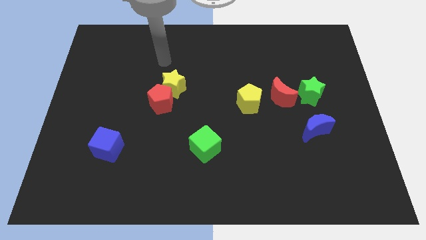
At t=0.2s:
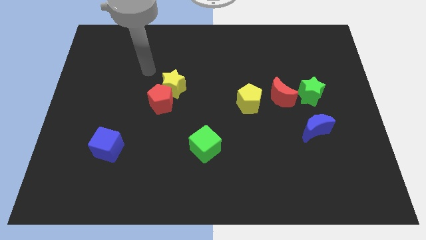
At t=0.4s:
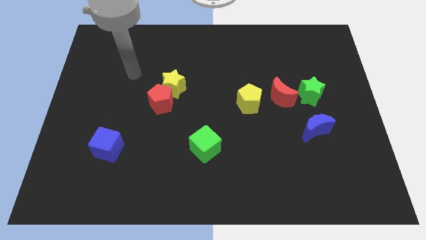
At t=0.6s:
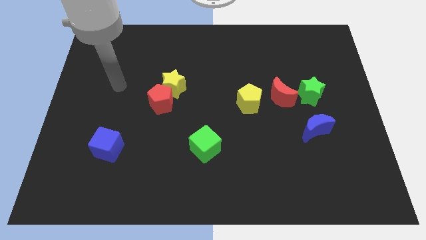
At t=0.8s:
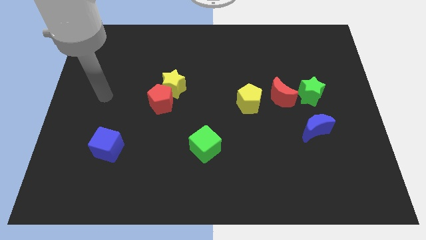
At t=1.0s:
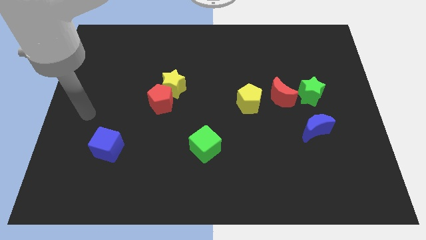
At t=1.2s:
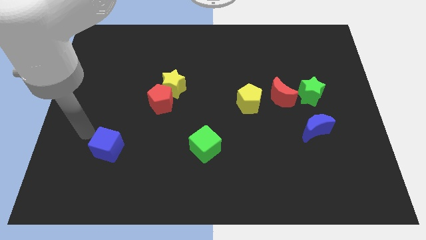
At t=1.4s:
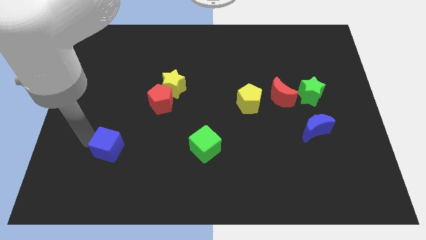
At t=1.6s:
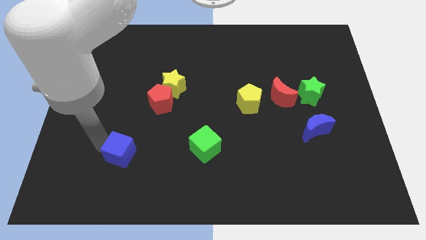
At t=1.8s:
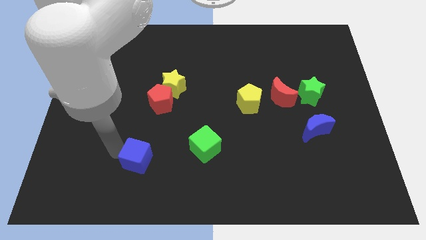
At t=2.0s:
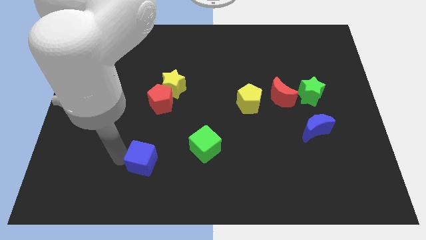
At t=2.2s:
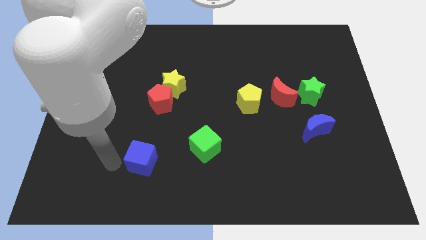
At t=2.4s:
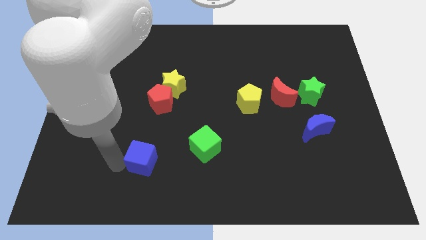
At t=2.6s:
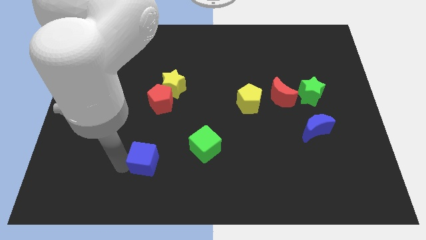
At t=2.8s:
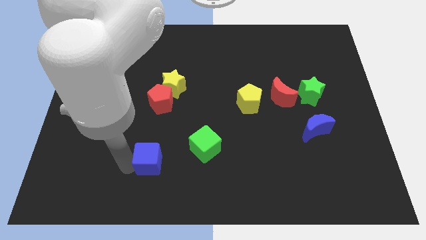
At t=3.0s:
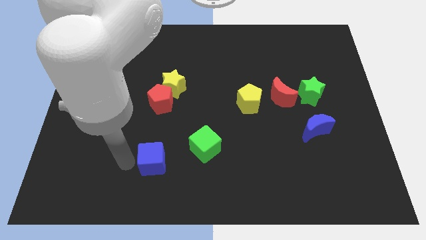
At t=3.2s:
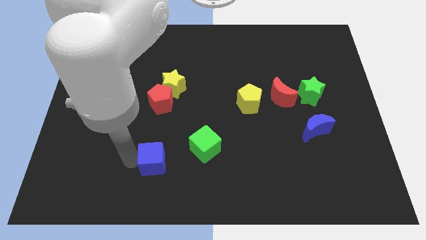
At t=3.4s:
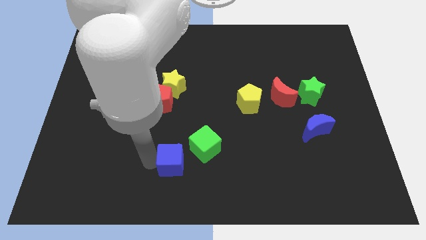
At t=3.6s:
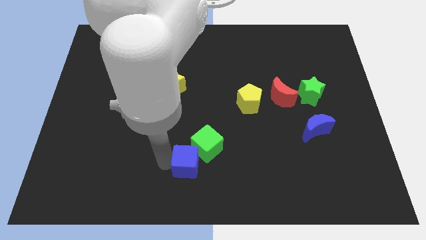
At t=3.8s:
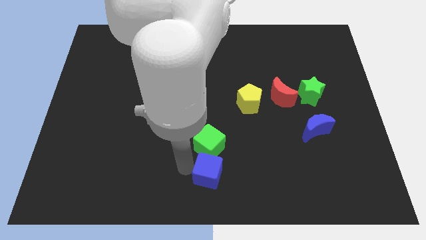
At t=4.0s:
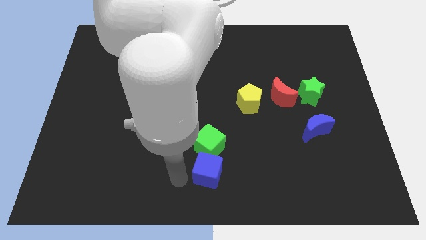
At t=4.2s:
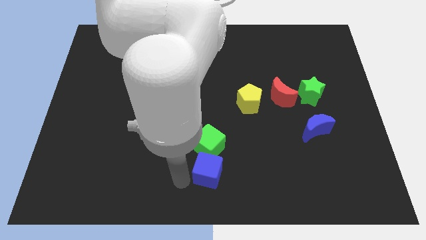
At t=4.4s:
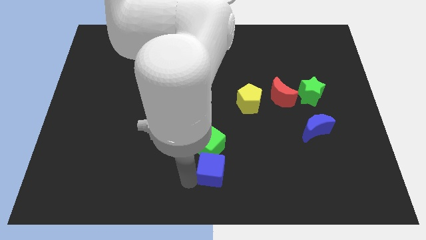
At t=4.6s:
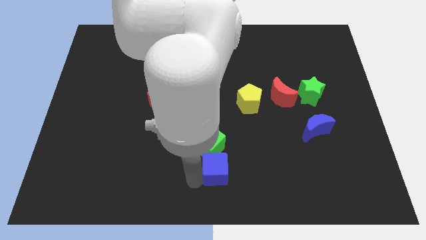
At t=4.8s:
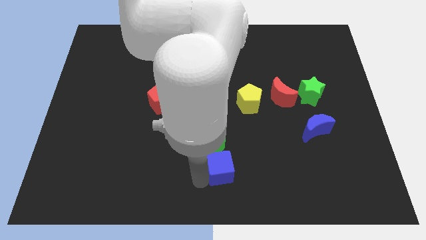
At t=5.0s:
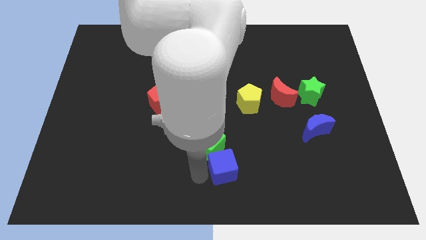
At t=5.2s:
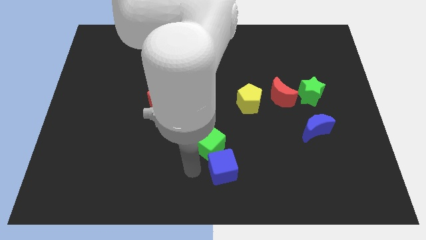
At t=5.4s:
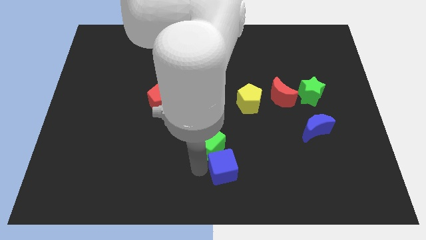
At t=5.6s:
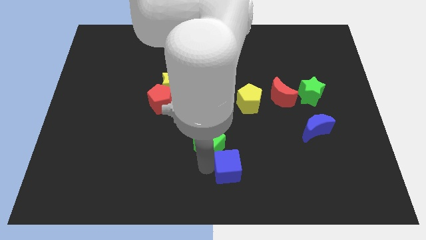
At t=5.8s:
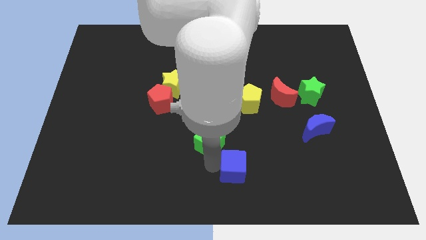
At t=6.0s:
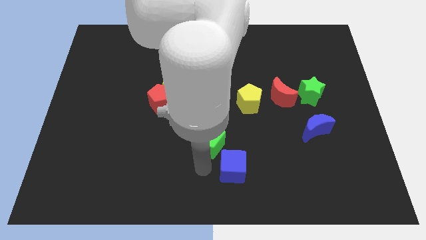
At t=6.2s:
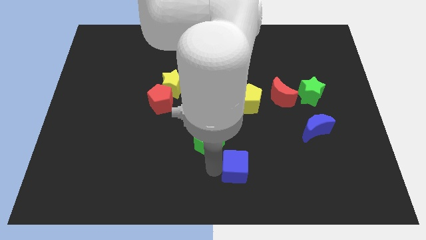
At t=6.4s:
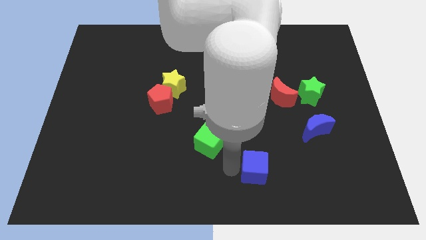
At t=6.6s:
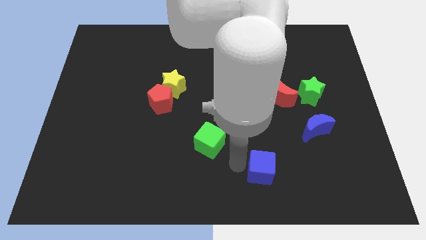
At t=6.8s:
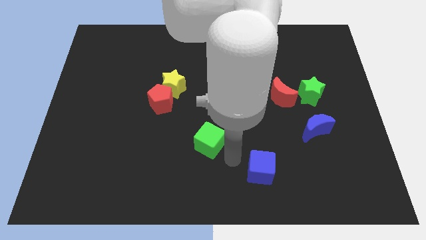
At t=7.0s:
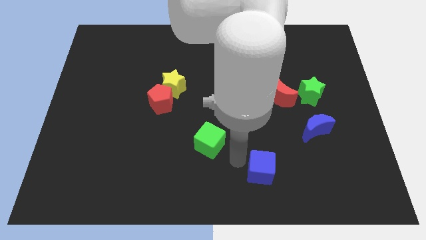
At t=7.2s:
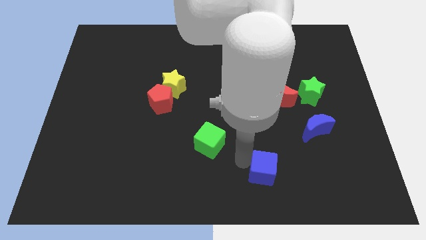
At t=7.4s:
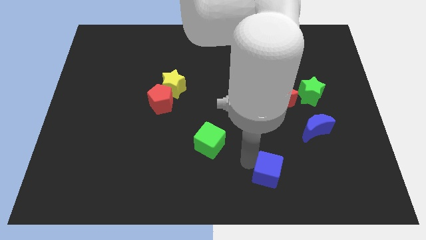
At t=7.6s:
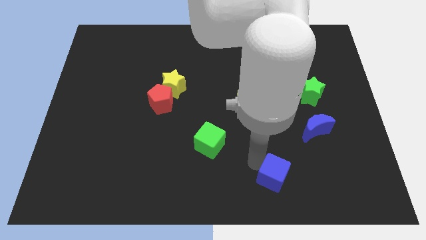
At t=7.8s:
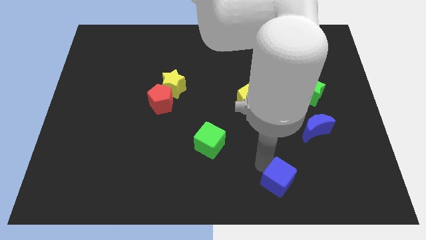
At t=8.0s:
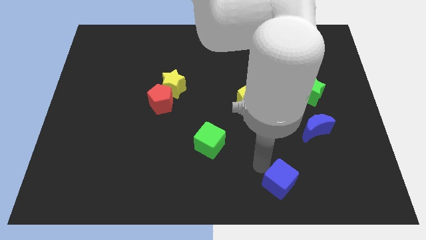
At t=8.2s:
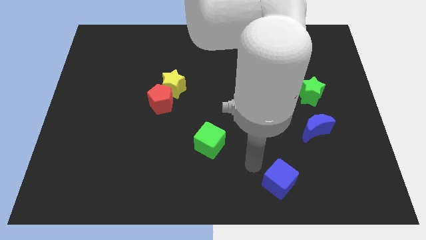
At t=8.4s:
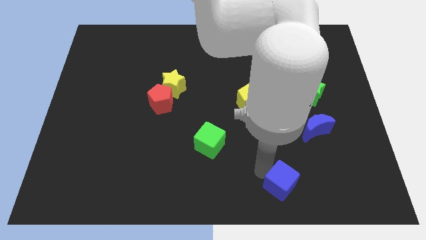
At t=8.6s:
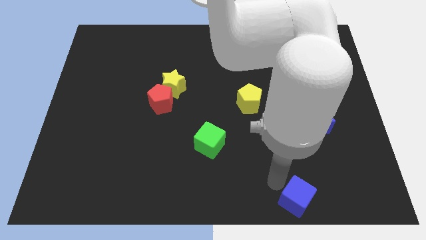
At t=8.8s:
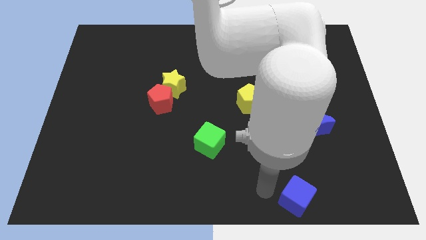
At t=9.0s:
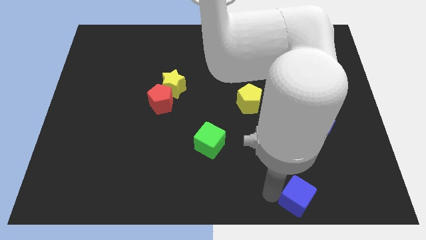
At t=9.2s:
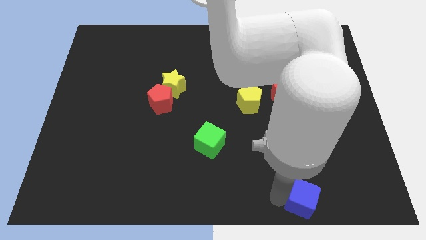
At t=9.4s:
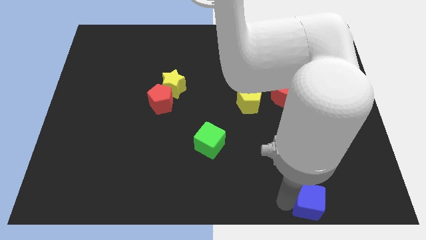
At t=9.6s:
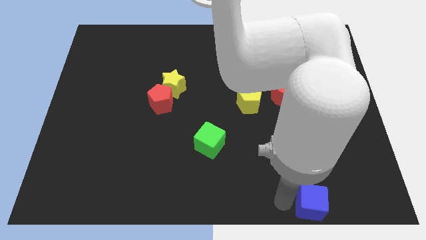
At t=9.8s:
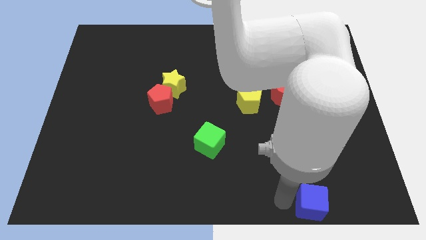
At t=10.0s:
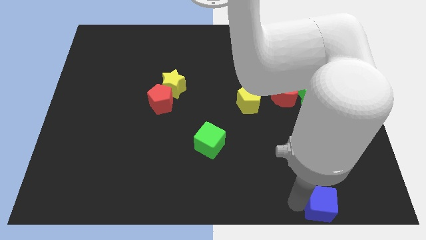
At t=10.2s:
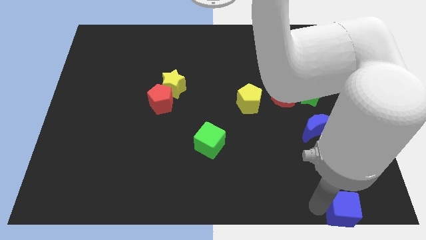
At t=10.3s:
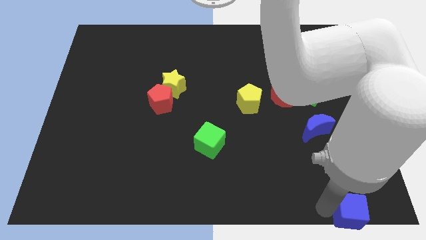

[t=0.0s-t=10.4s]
push the blue cube to the bottom right
